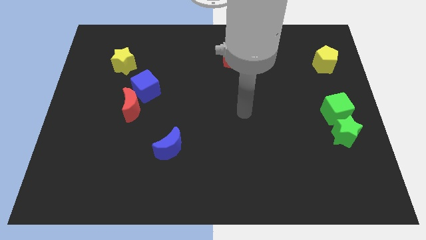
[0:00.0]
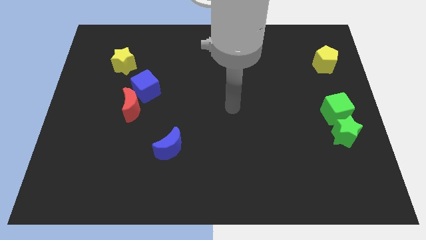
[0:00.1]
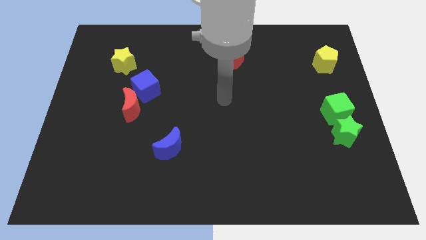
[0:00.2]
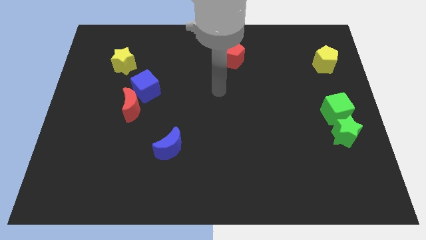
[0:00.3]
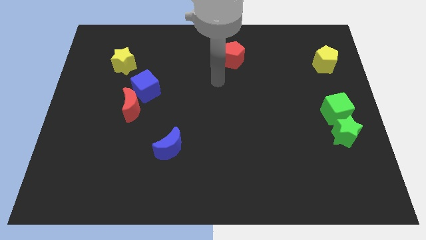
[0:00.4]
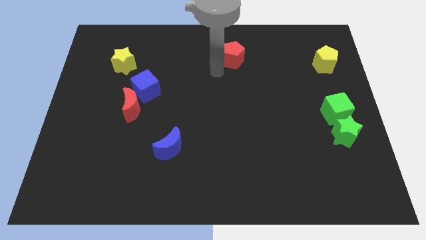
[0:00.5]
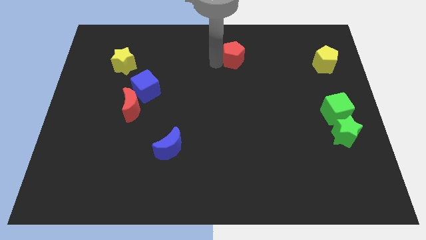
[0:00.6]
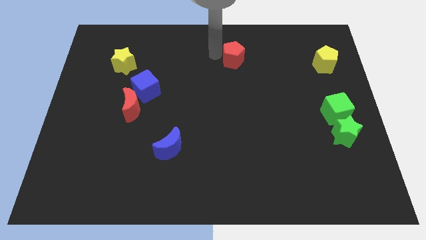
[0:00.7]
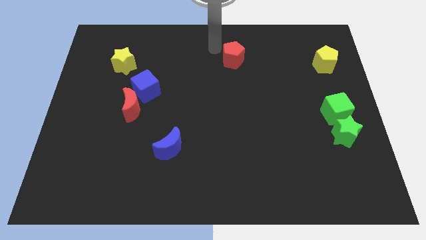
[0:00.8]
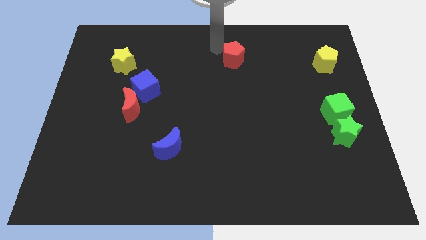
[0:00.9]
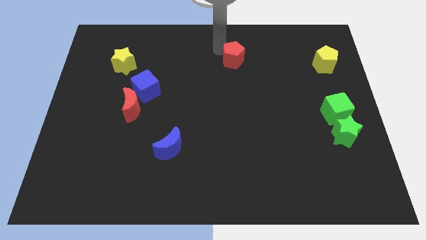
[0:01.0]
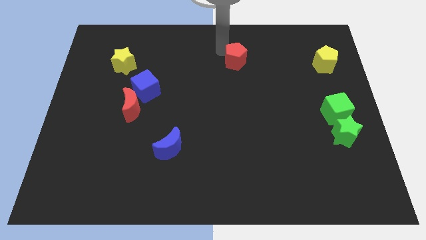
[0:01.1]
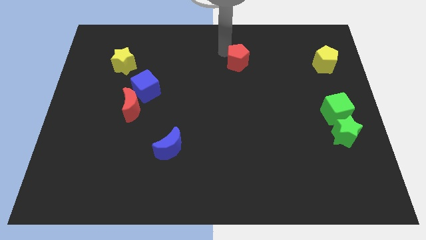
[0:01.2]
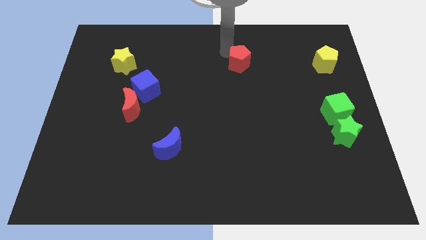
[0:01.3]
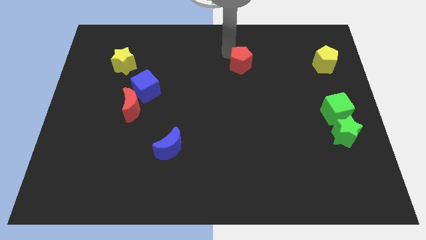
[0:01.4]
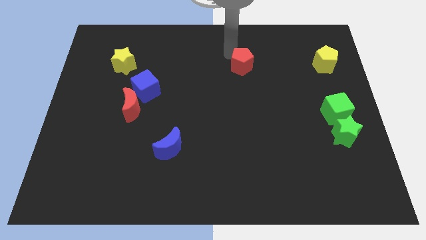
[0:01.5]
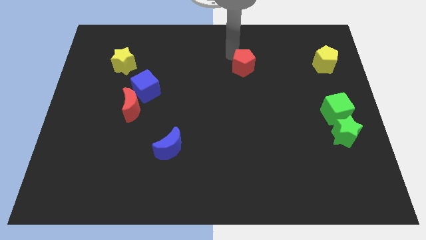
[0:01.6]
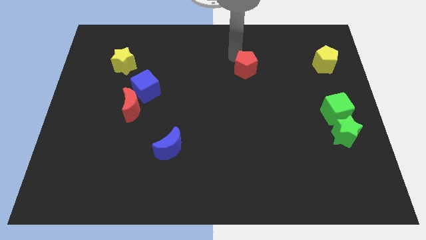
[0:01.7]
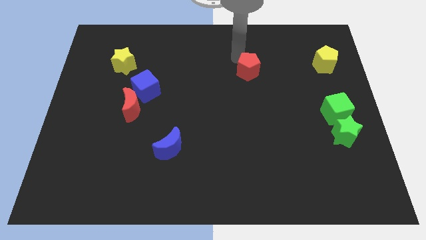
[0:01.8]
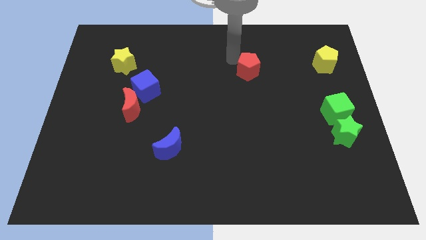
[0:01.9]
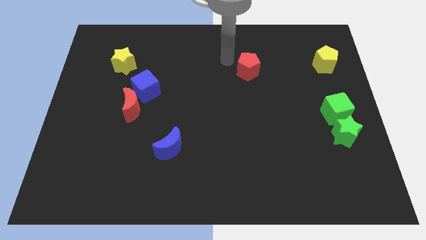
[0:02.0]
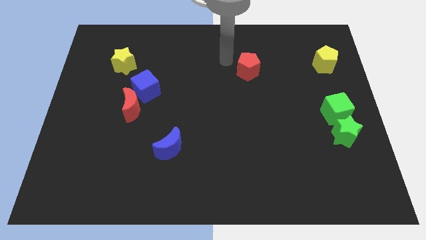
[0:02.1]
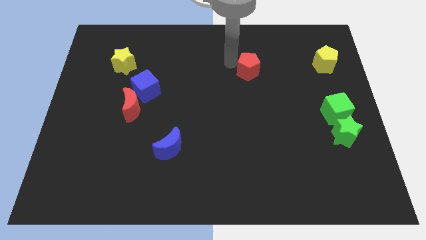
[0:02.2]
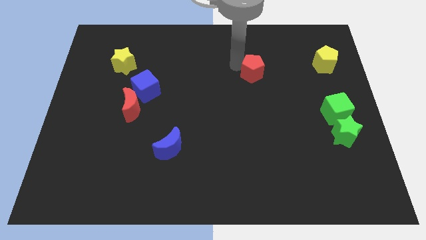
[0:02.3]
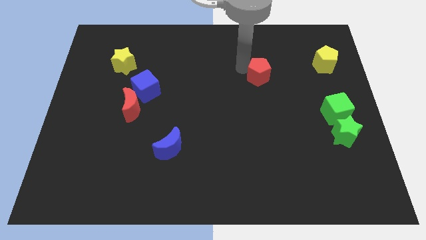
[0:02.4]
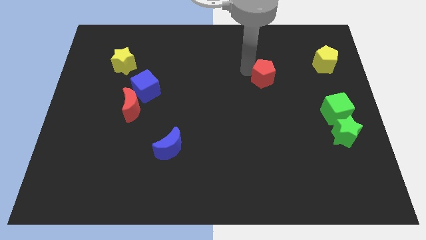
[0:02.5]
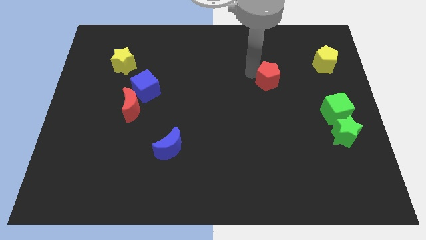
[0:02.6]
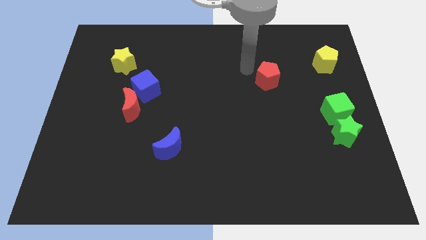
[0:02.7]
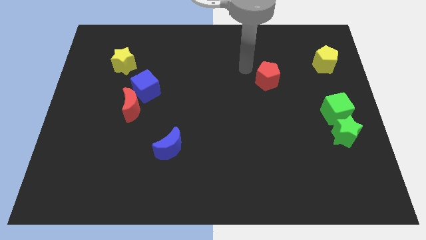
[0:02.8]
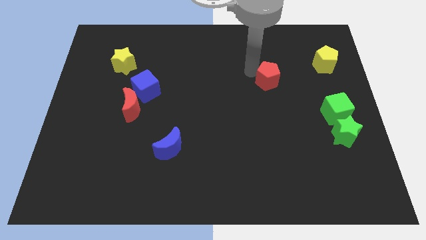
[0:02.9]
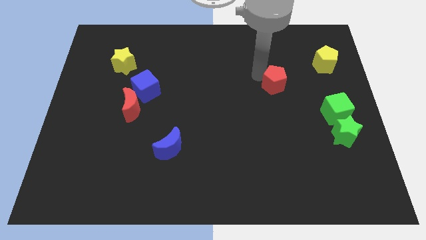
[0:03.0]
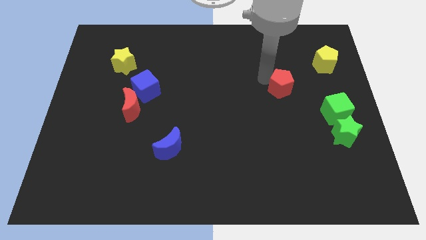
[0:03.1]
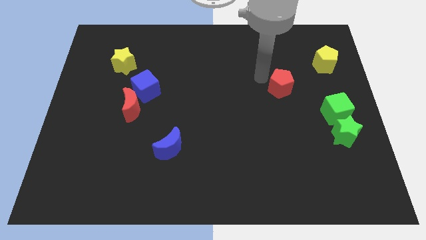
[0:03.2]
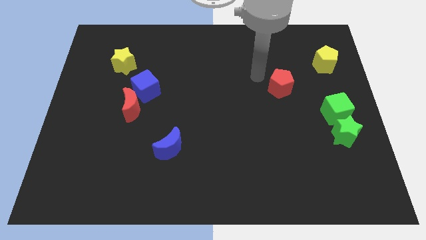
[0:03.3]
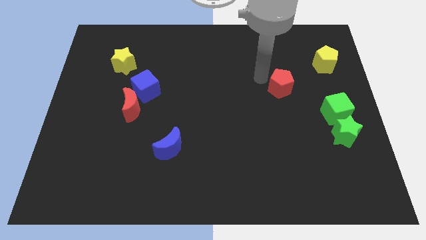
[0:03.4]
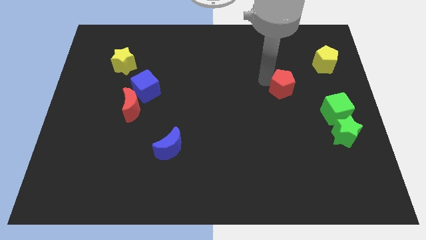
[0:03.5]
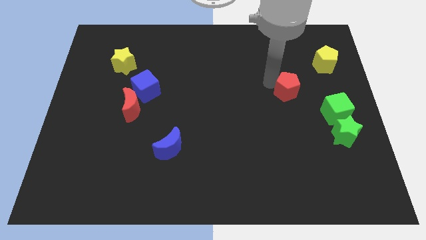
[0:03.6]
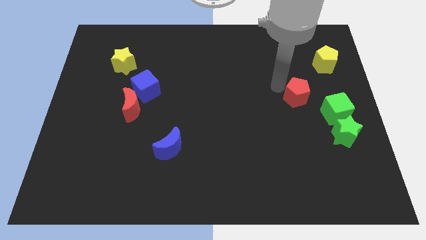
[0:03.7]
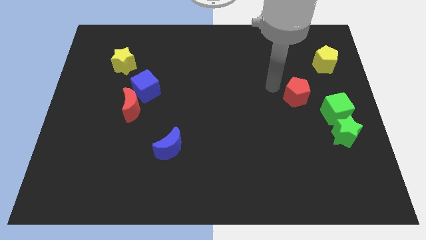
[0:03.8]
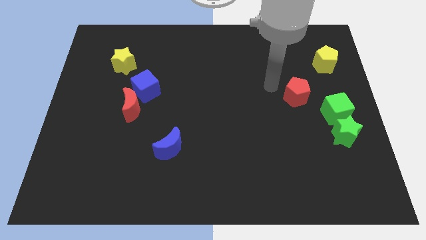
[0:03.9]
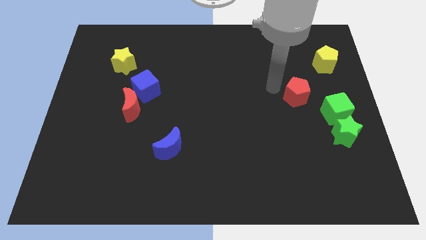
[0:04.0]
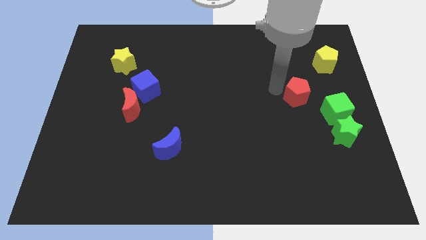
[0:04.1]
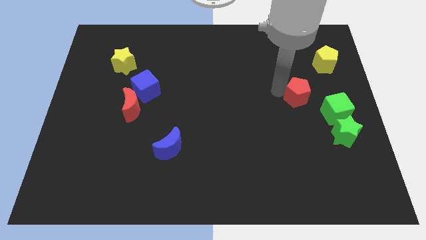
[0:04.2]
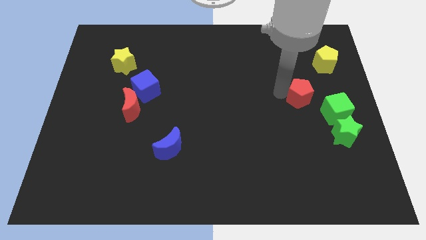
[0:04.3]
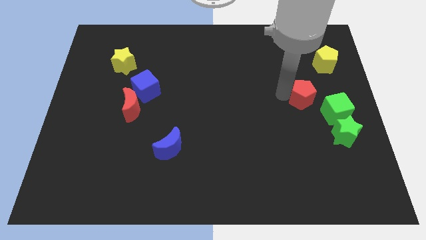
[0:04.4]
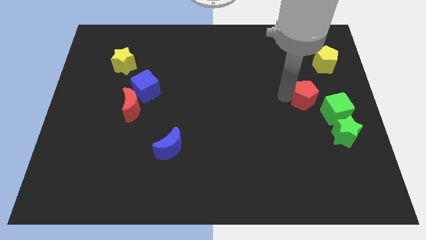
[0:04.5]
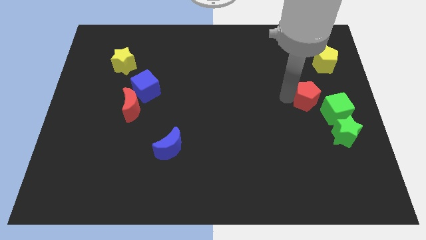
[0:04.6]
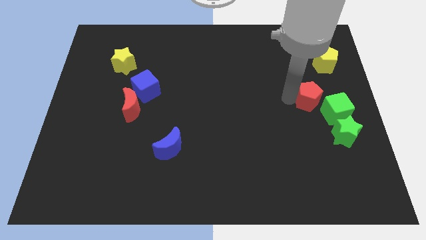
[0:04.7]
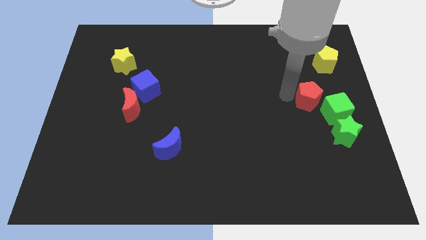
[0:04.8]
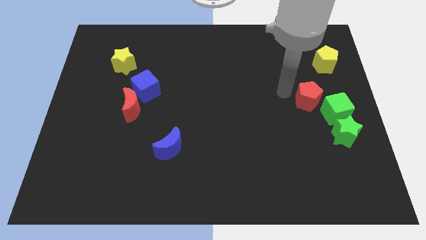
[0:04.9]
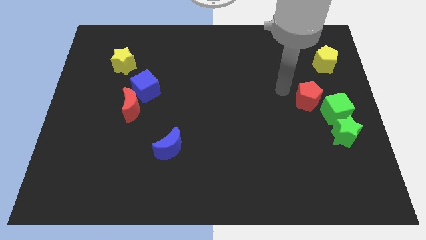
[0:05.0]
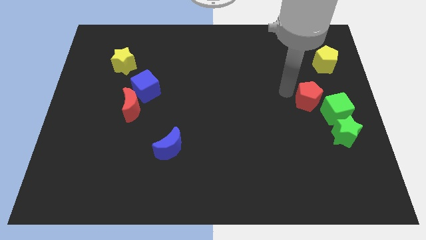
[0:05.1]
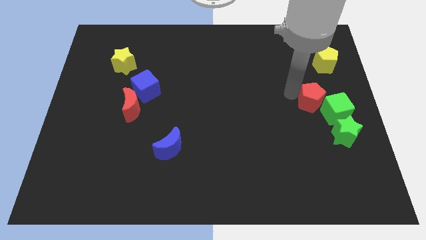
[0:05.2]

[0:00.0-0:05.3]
slide the red pentagon towards the green cube

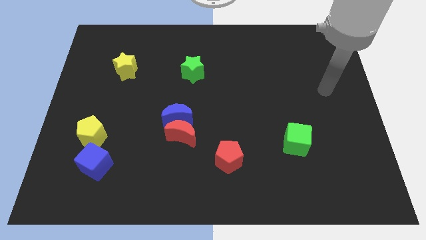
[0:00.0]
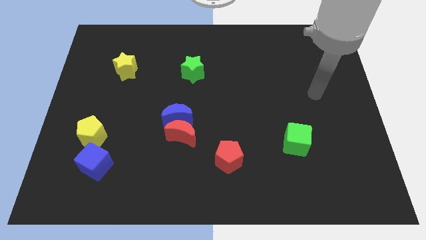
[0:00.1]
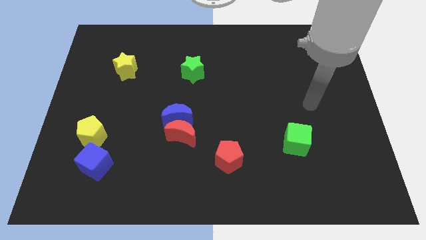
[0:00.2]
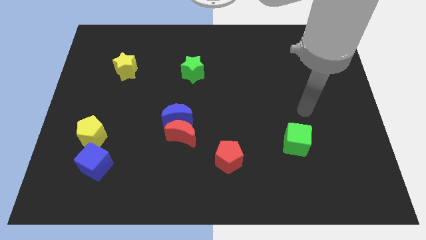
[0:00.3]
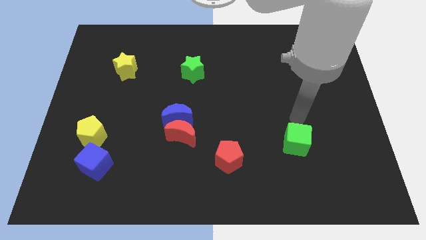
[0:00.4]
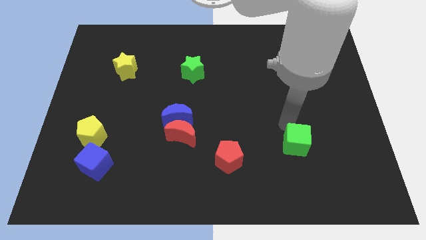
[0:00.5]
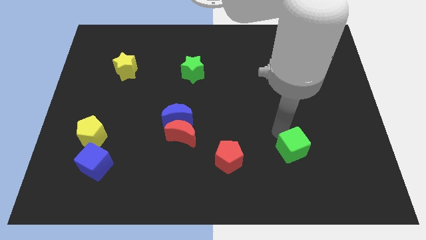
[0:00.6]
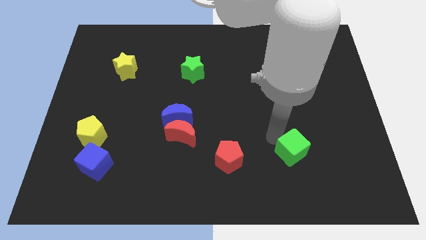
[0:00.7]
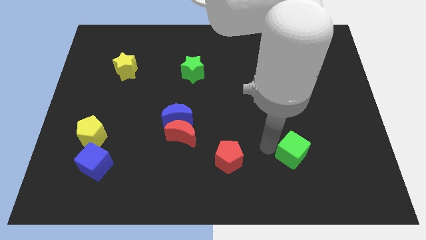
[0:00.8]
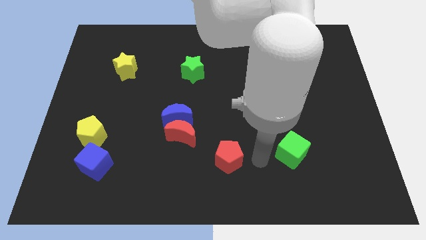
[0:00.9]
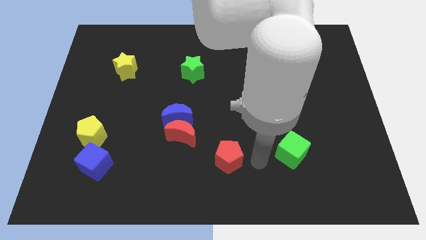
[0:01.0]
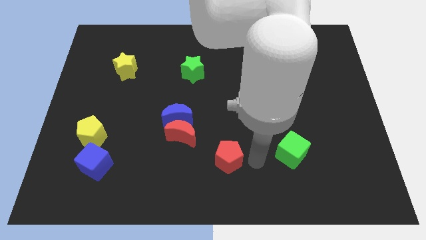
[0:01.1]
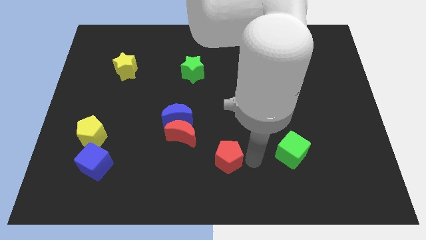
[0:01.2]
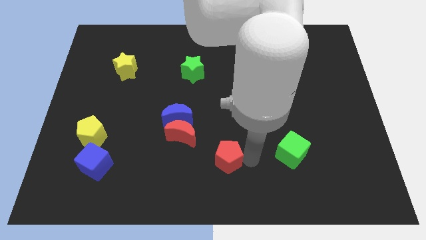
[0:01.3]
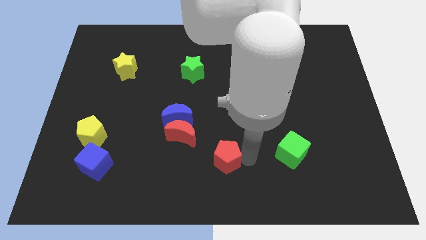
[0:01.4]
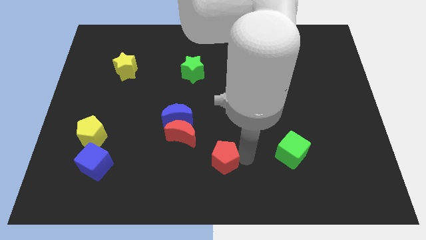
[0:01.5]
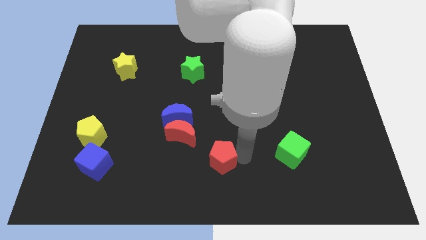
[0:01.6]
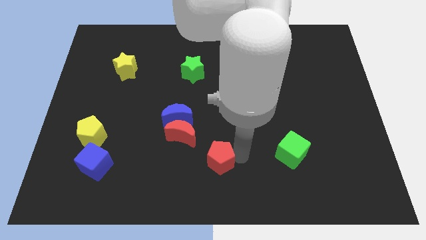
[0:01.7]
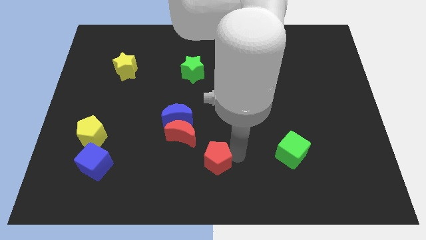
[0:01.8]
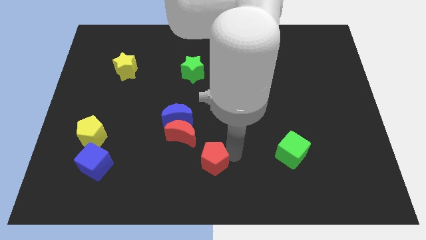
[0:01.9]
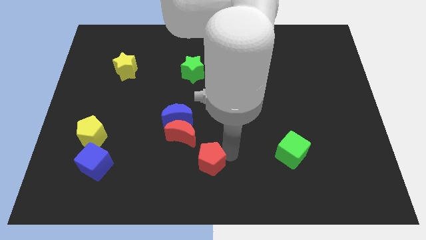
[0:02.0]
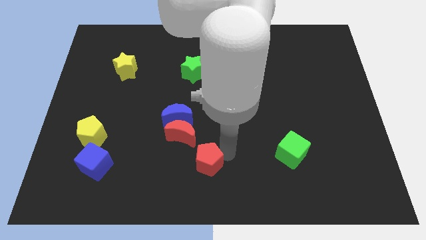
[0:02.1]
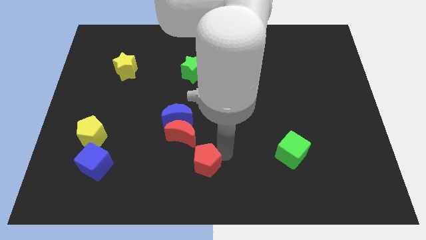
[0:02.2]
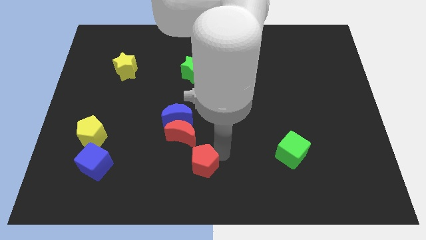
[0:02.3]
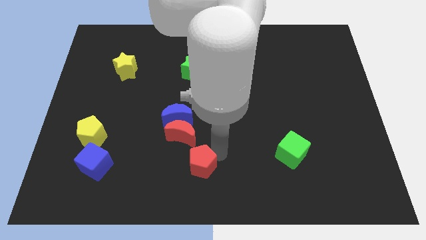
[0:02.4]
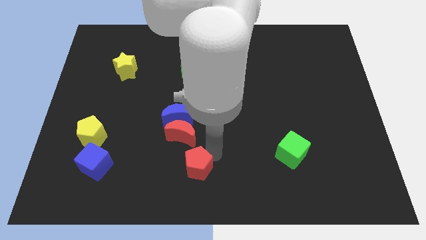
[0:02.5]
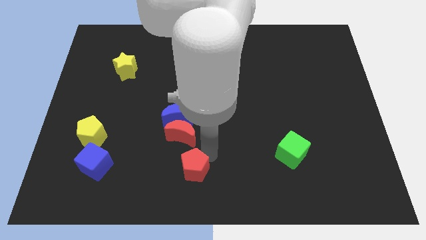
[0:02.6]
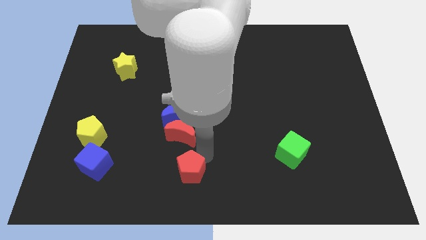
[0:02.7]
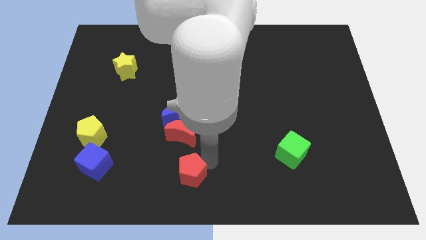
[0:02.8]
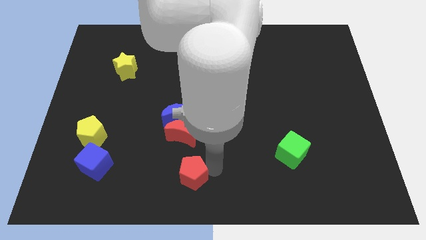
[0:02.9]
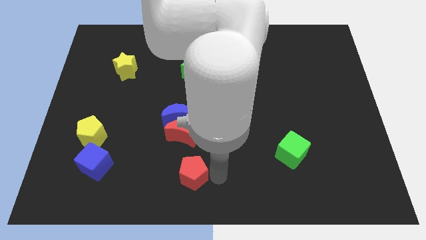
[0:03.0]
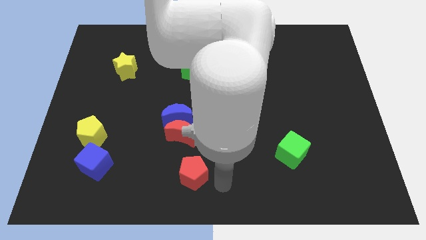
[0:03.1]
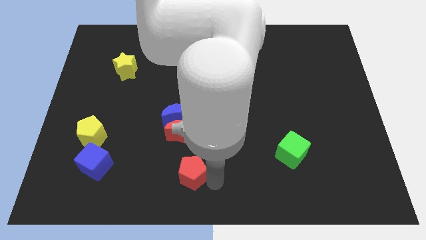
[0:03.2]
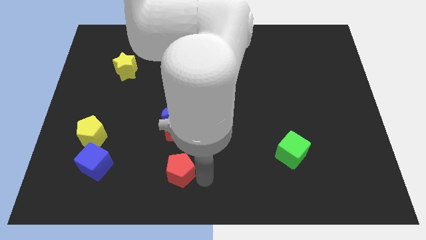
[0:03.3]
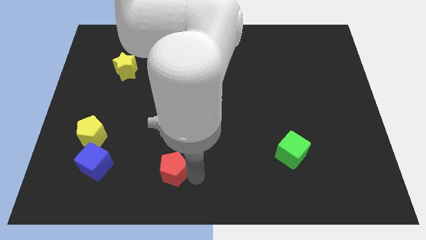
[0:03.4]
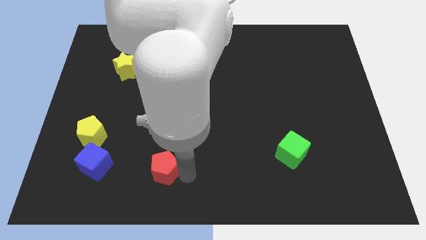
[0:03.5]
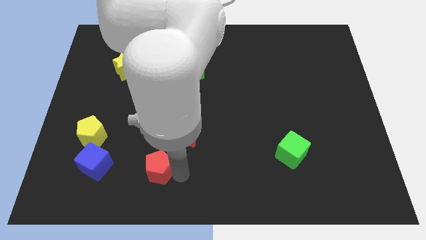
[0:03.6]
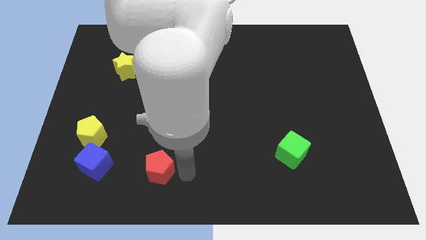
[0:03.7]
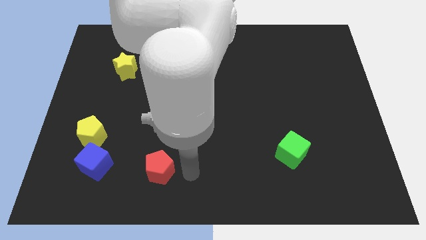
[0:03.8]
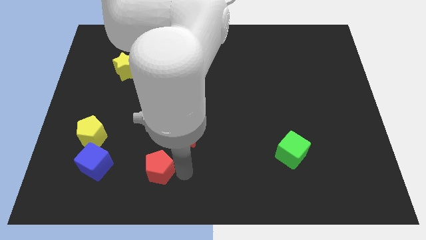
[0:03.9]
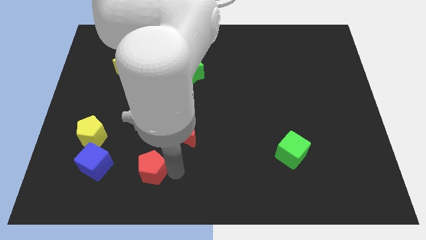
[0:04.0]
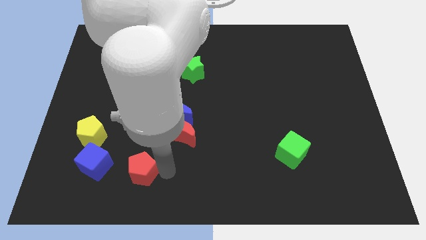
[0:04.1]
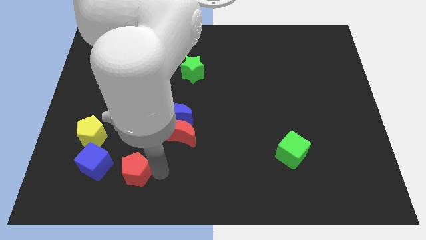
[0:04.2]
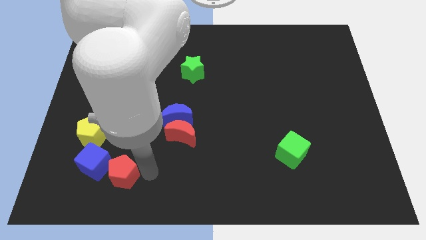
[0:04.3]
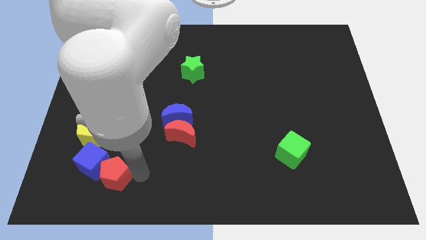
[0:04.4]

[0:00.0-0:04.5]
slide the red pentagon next to the blue cube
